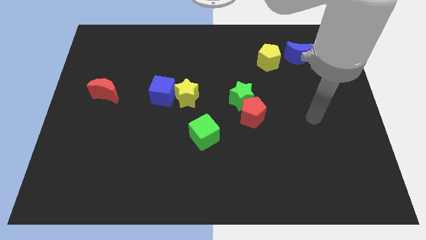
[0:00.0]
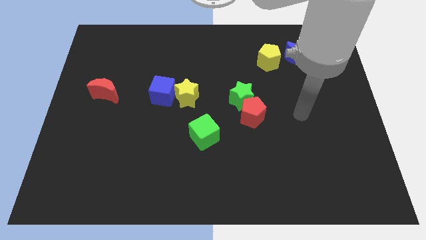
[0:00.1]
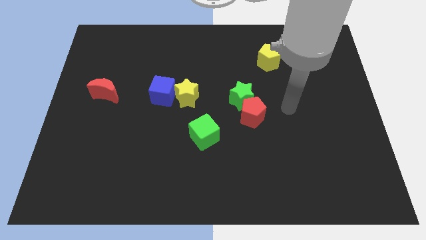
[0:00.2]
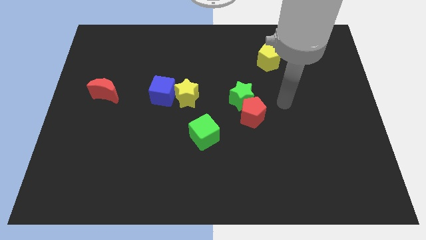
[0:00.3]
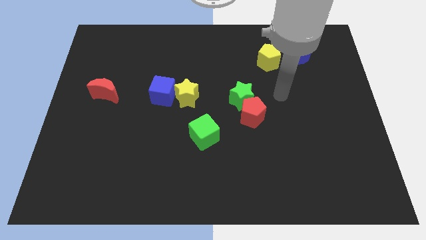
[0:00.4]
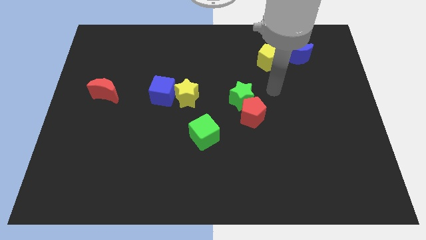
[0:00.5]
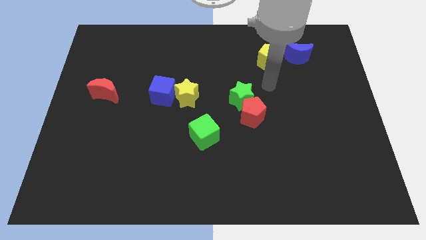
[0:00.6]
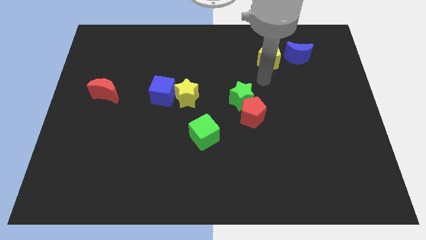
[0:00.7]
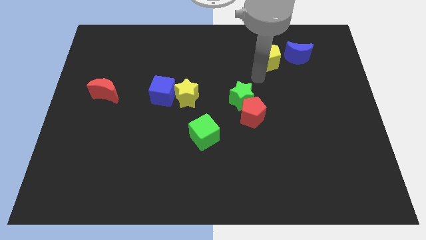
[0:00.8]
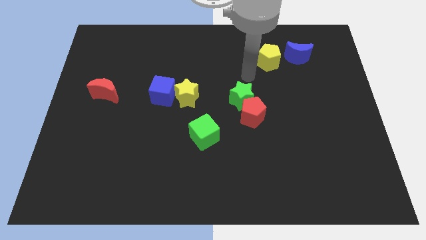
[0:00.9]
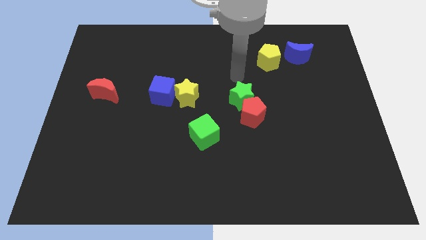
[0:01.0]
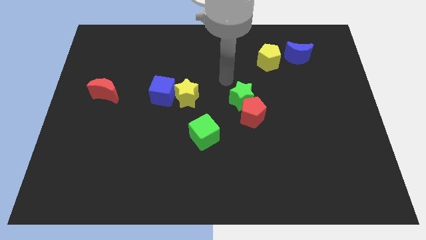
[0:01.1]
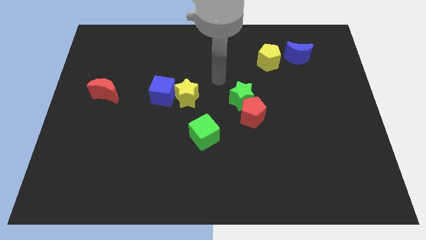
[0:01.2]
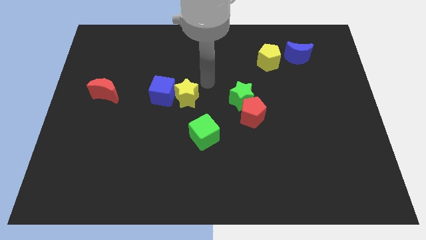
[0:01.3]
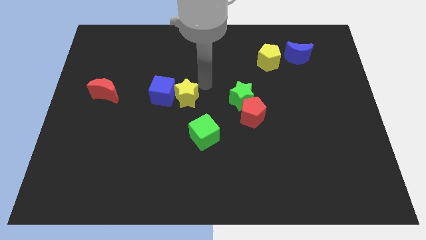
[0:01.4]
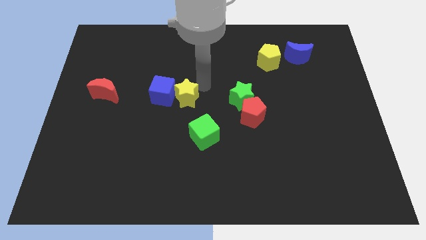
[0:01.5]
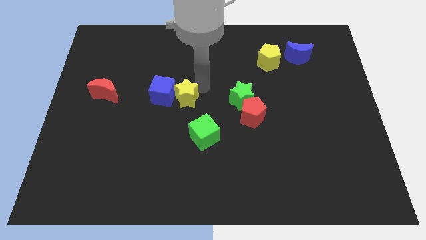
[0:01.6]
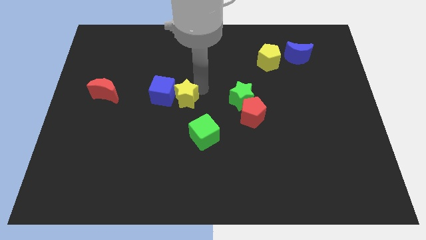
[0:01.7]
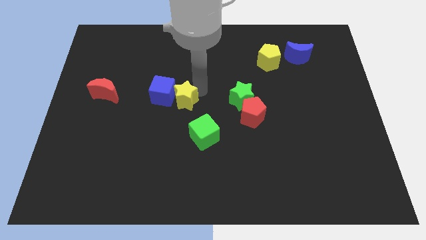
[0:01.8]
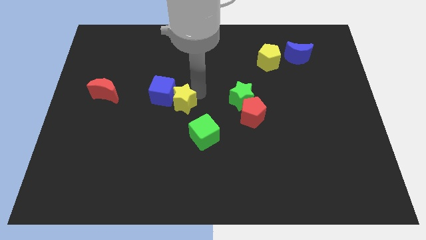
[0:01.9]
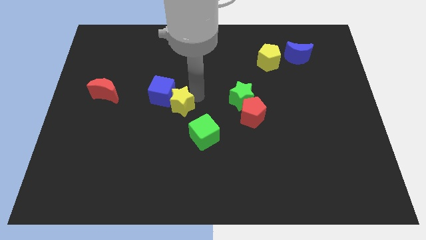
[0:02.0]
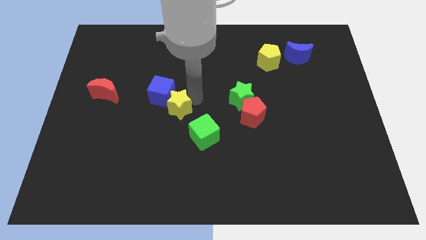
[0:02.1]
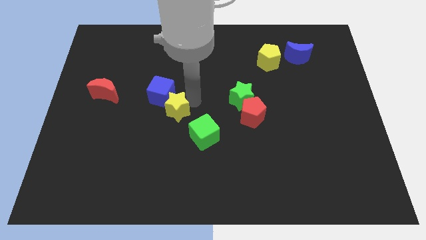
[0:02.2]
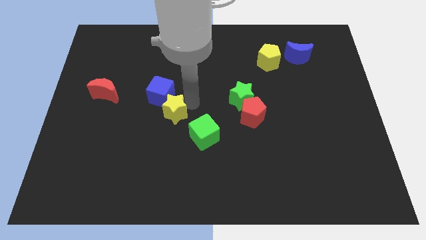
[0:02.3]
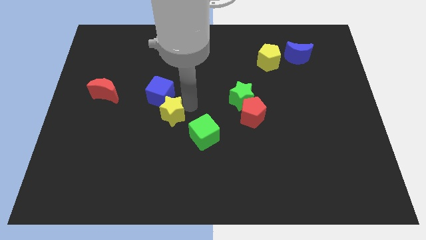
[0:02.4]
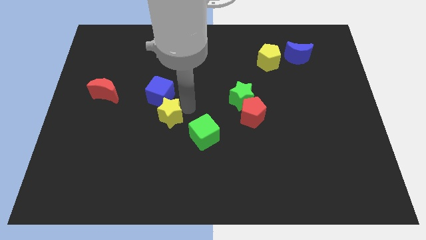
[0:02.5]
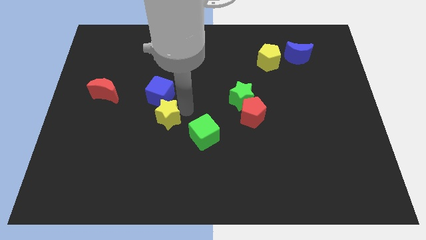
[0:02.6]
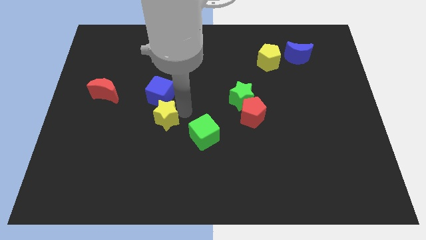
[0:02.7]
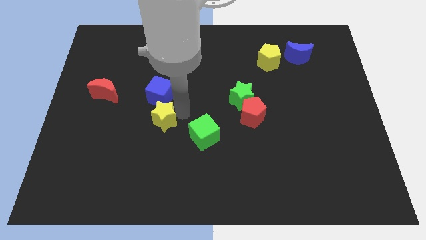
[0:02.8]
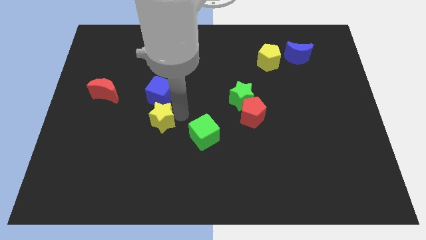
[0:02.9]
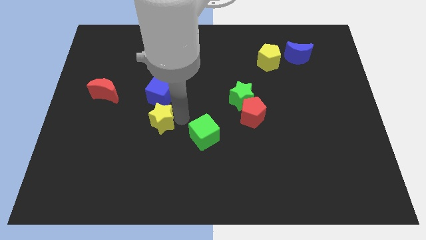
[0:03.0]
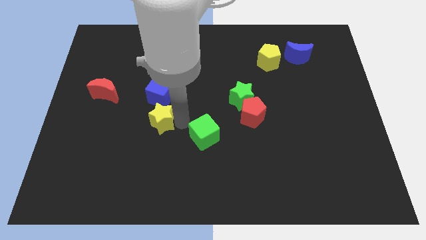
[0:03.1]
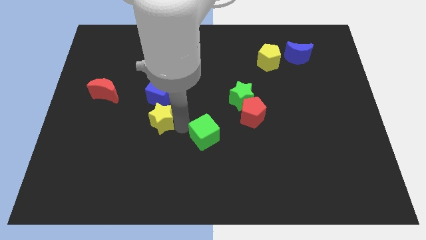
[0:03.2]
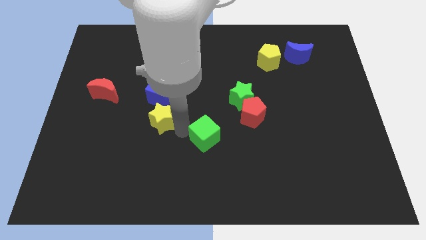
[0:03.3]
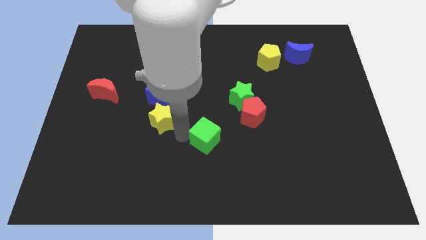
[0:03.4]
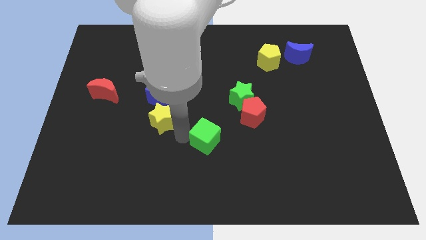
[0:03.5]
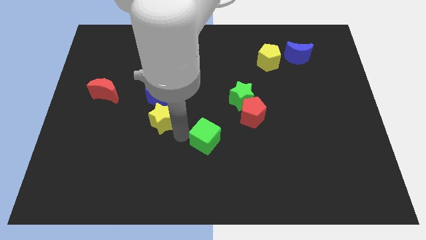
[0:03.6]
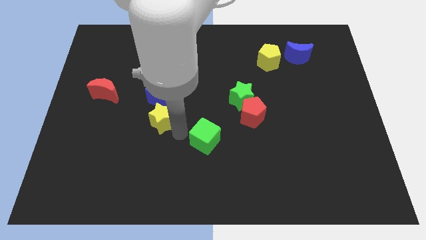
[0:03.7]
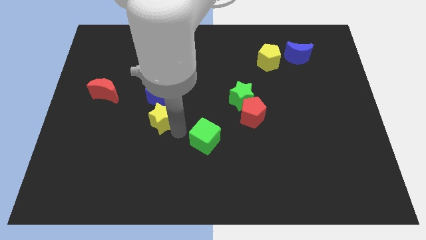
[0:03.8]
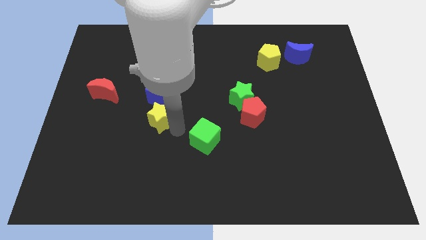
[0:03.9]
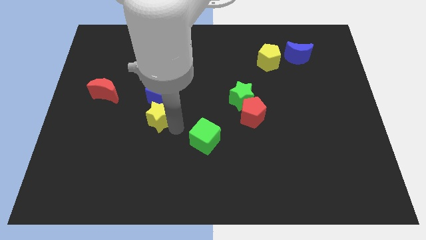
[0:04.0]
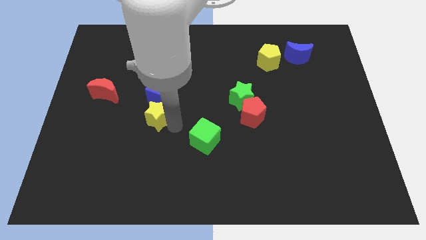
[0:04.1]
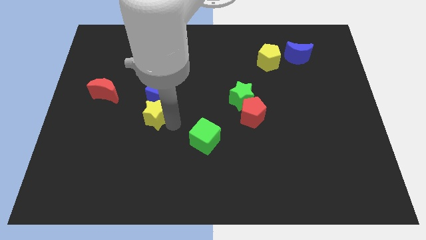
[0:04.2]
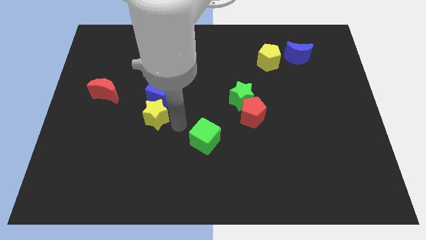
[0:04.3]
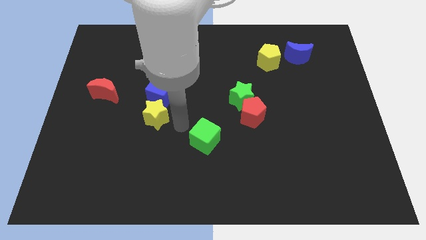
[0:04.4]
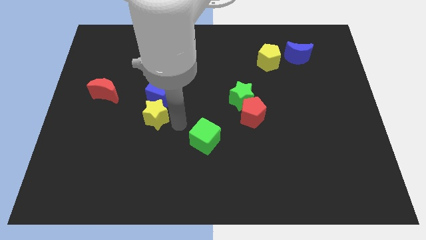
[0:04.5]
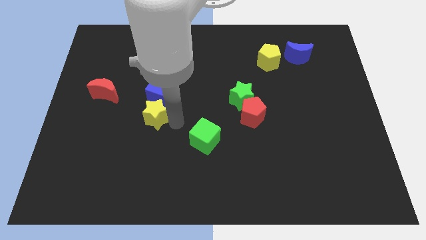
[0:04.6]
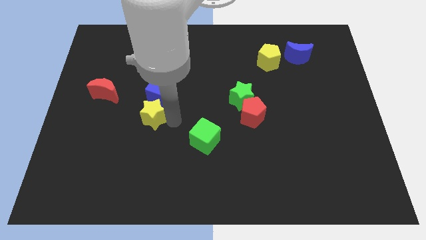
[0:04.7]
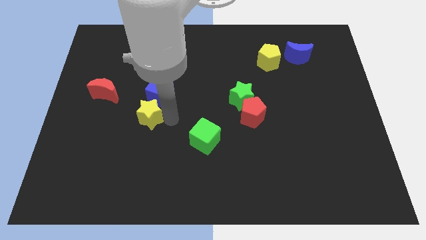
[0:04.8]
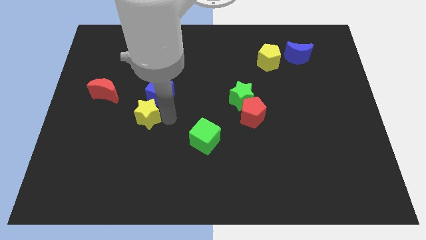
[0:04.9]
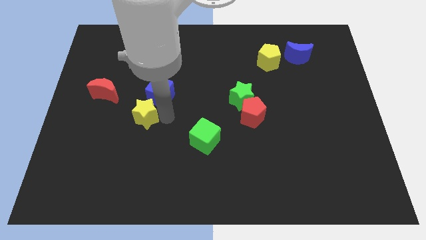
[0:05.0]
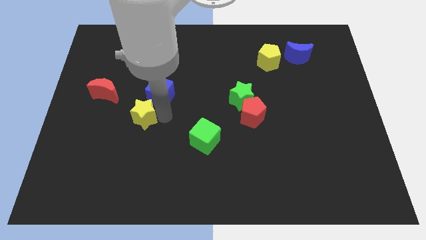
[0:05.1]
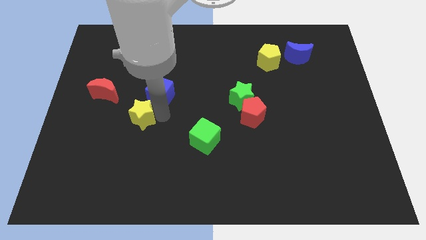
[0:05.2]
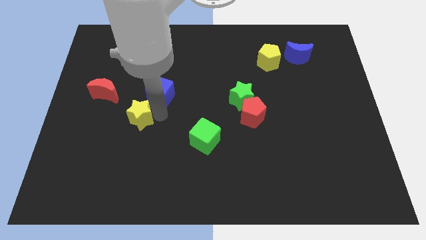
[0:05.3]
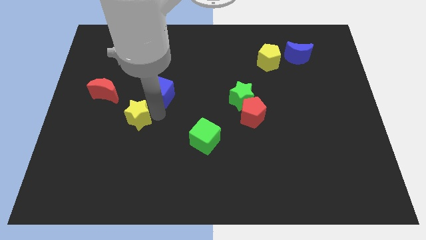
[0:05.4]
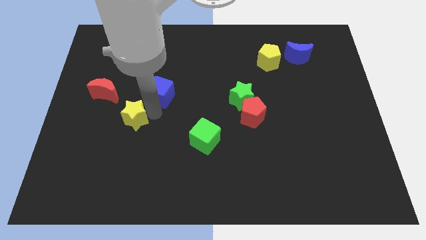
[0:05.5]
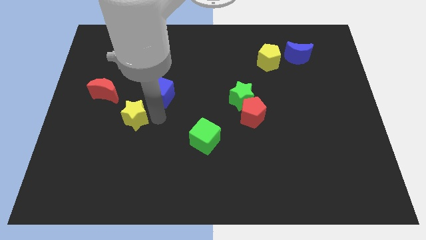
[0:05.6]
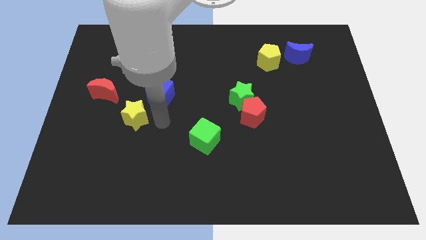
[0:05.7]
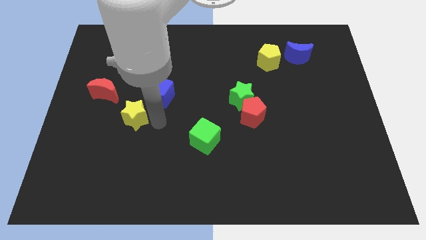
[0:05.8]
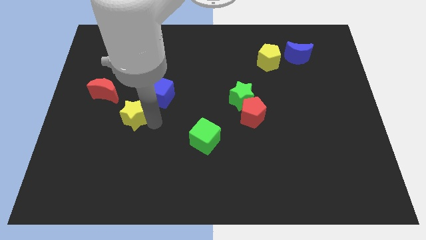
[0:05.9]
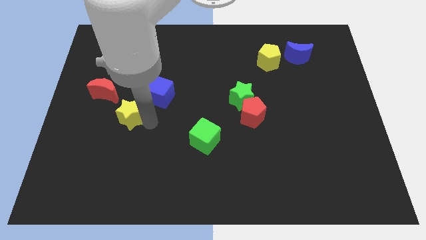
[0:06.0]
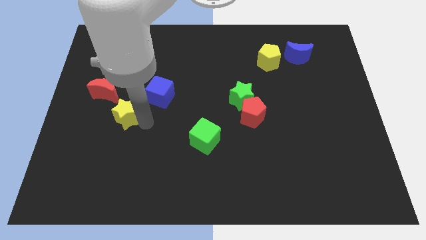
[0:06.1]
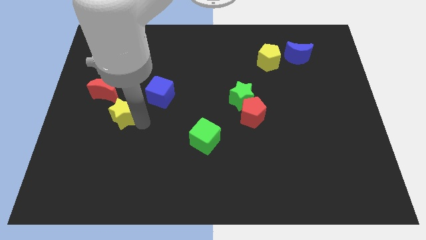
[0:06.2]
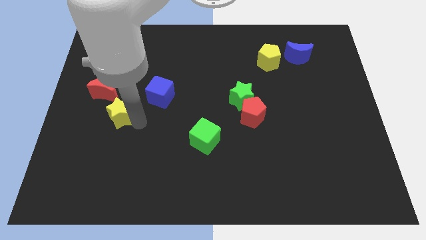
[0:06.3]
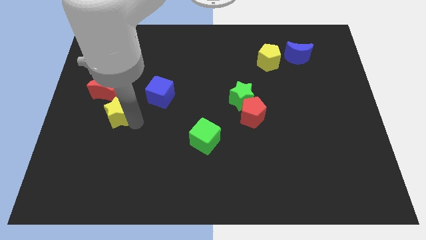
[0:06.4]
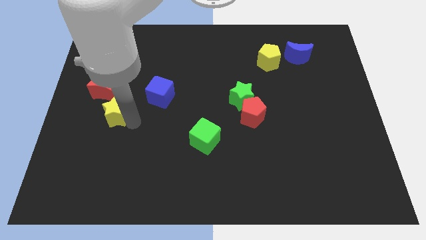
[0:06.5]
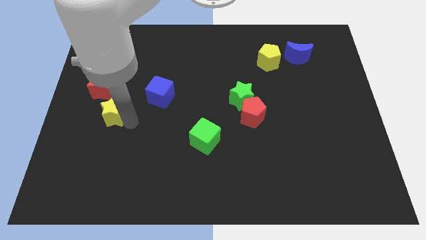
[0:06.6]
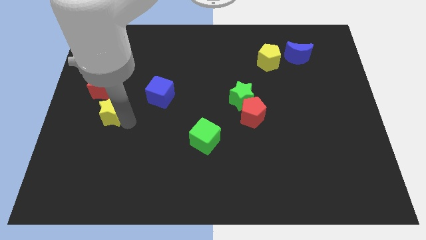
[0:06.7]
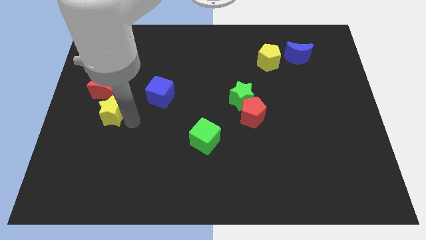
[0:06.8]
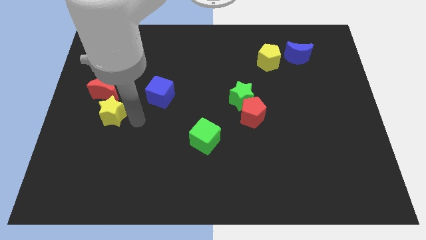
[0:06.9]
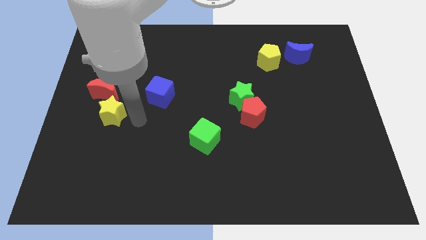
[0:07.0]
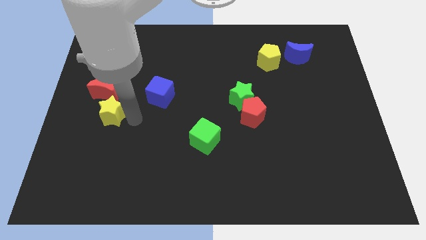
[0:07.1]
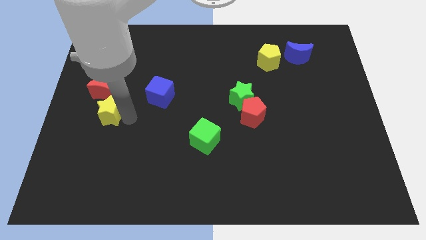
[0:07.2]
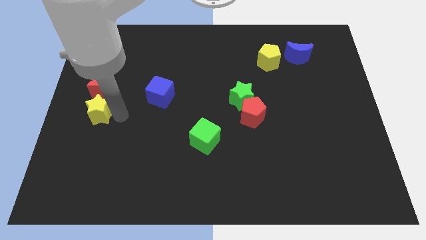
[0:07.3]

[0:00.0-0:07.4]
put the yellow star to the left side of the board
